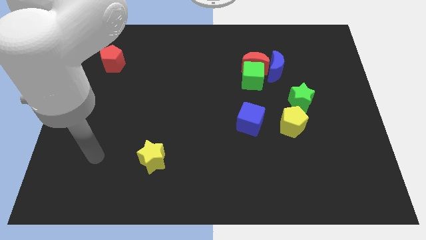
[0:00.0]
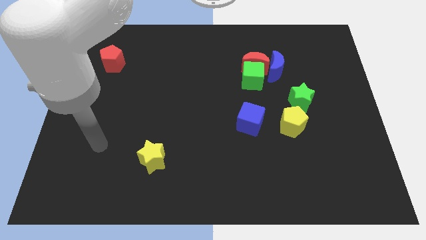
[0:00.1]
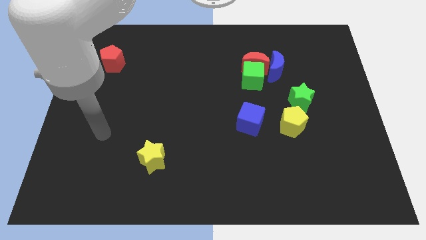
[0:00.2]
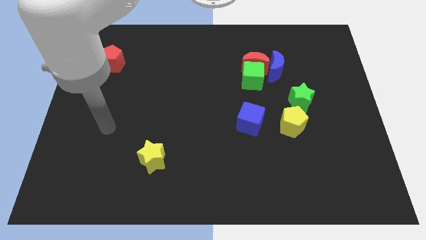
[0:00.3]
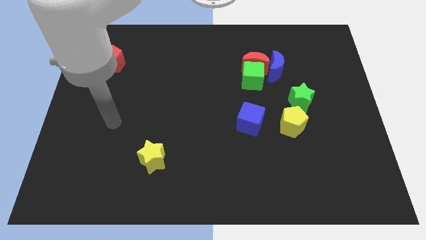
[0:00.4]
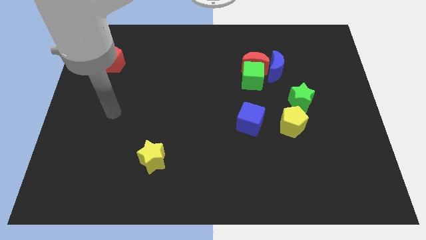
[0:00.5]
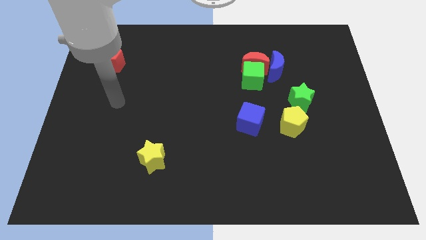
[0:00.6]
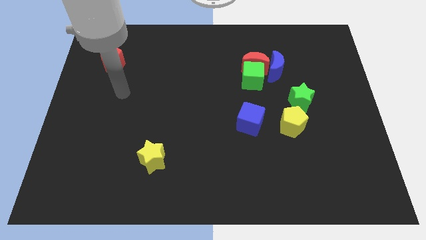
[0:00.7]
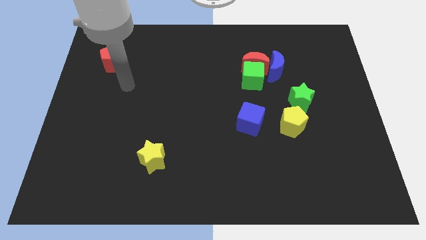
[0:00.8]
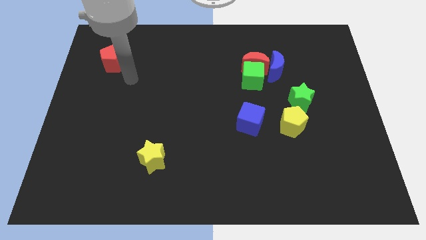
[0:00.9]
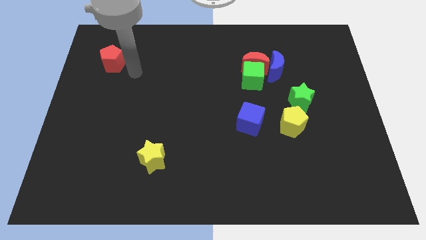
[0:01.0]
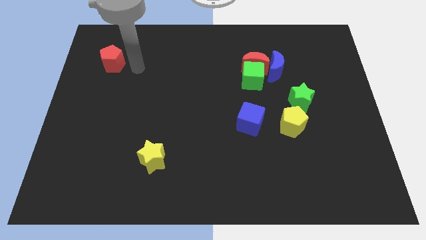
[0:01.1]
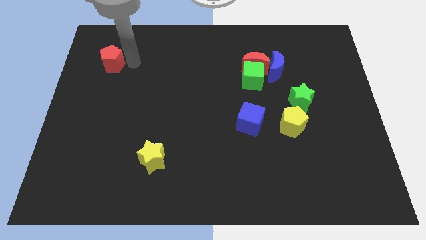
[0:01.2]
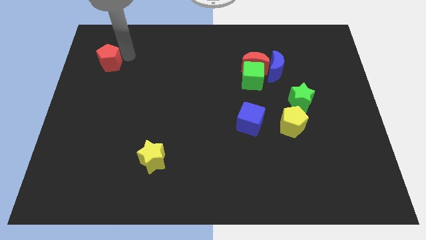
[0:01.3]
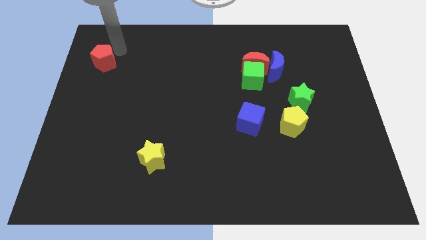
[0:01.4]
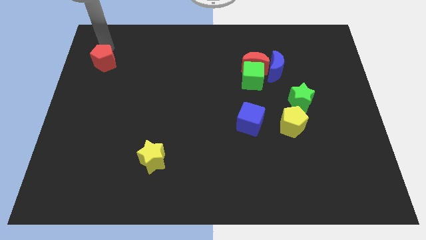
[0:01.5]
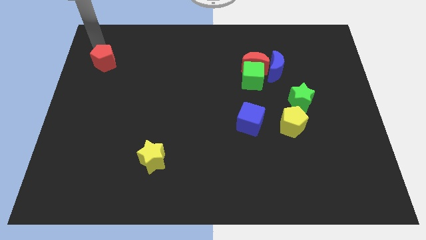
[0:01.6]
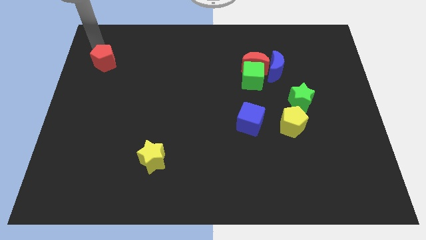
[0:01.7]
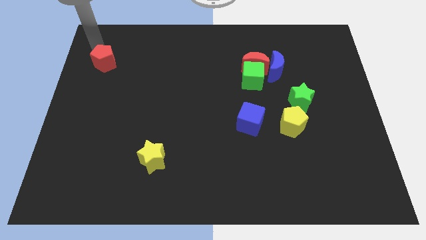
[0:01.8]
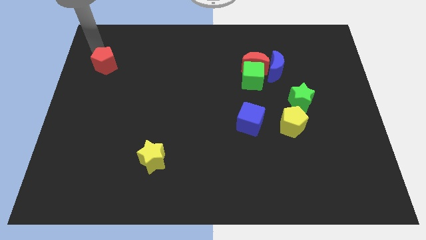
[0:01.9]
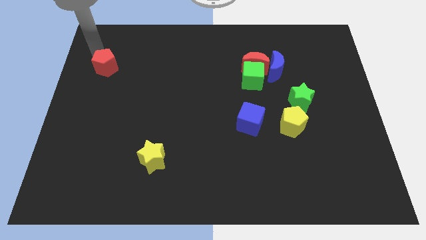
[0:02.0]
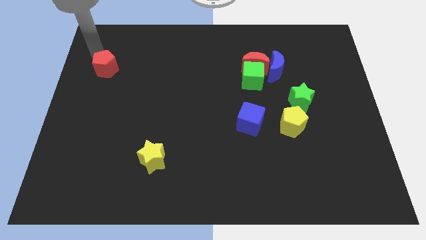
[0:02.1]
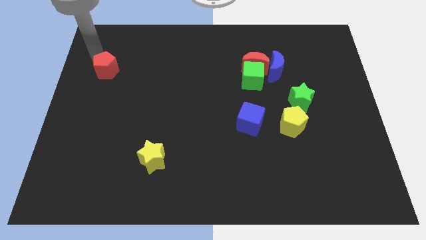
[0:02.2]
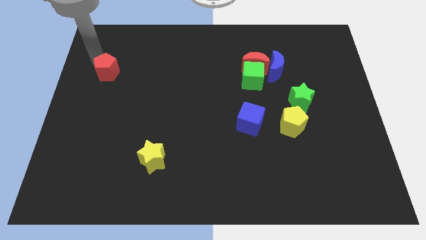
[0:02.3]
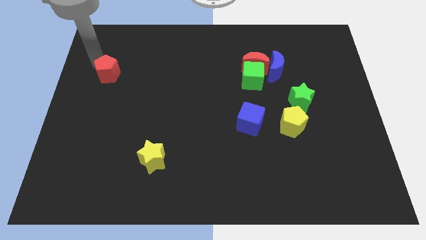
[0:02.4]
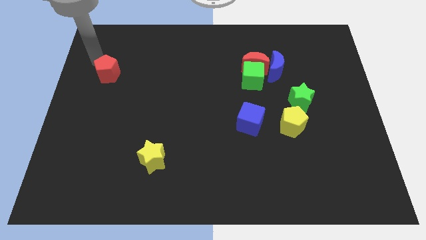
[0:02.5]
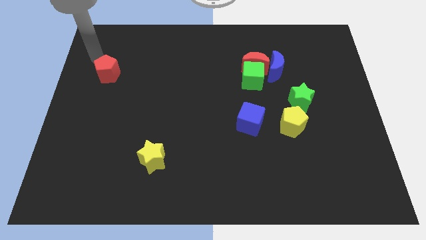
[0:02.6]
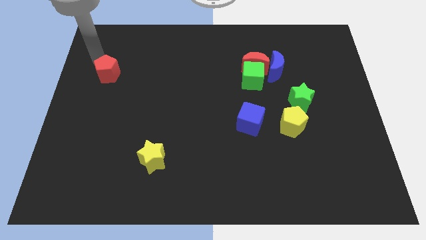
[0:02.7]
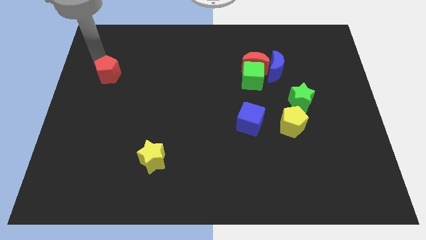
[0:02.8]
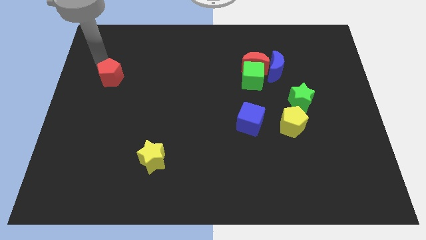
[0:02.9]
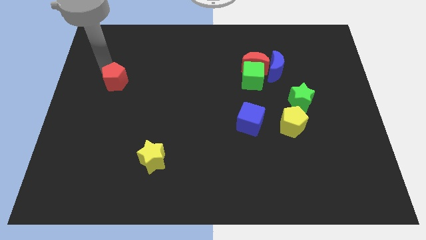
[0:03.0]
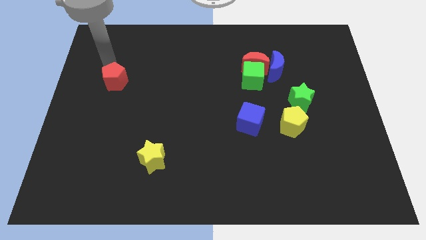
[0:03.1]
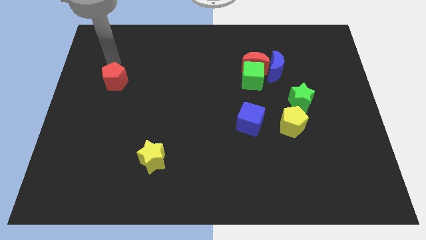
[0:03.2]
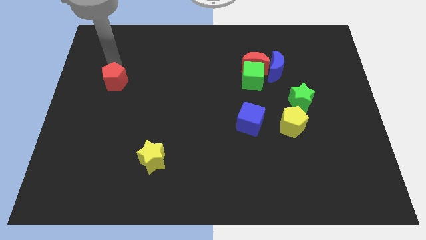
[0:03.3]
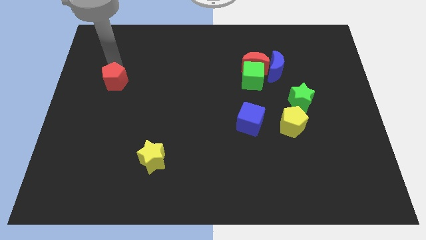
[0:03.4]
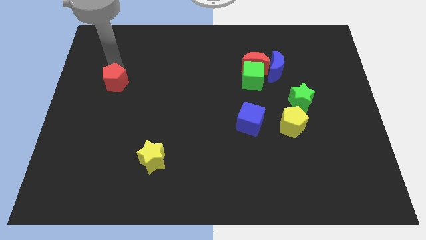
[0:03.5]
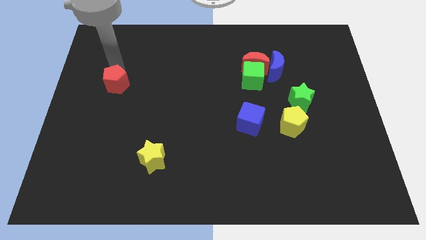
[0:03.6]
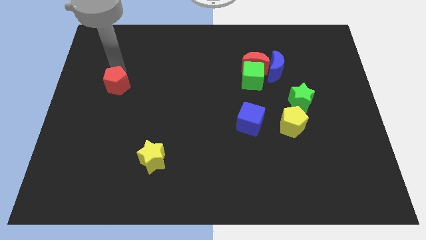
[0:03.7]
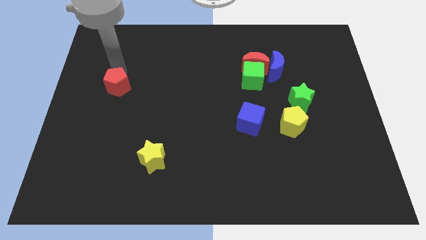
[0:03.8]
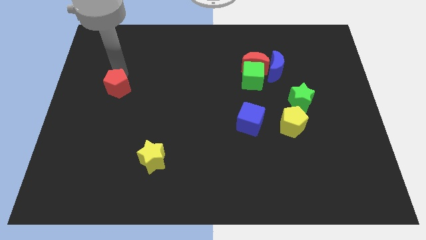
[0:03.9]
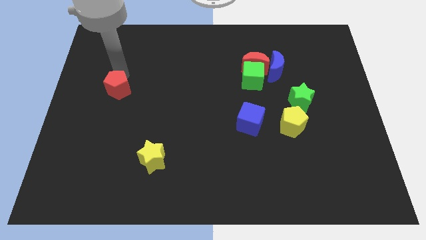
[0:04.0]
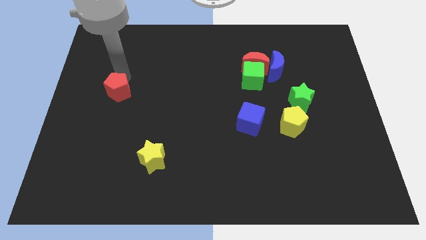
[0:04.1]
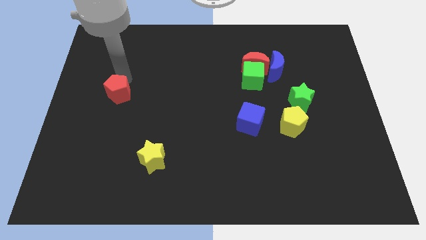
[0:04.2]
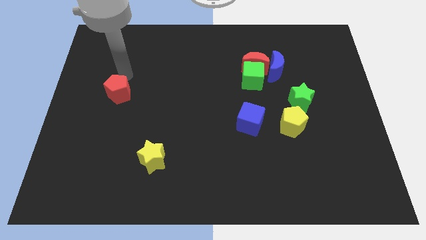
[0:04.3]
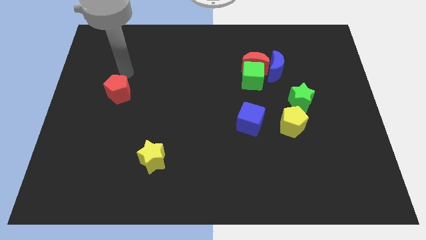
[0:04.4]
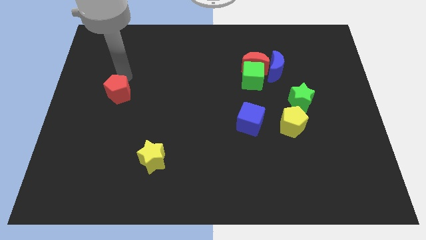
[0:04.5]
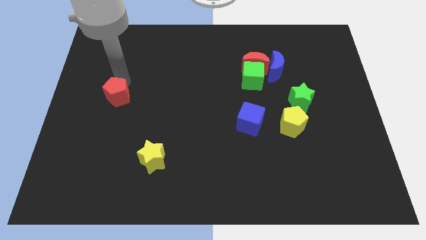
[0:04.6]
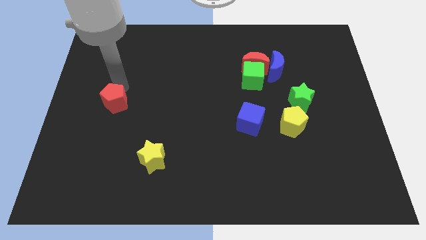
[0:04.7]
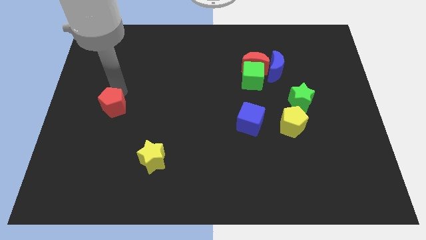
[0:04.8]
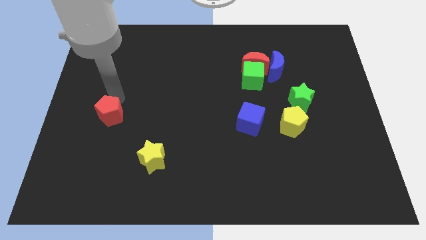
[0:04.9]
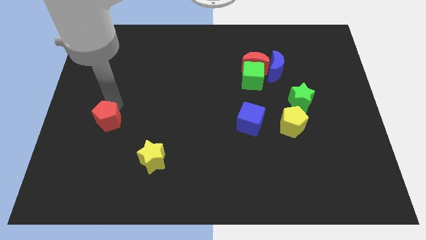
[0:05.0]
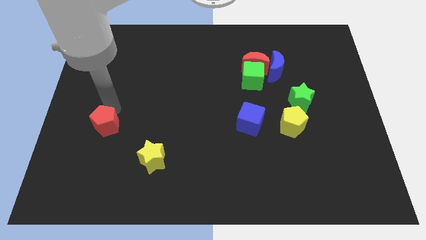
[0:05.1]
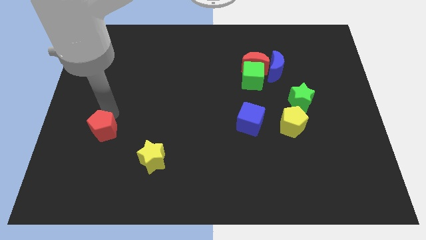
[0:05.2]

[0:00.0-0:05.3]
slide the red pentagon down

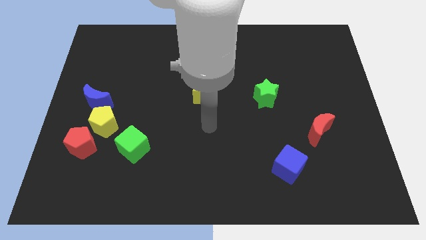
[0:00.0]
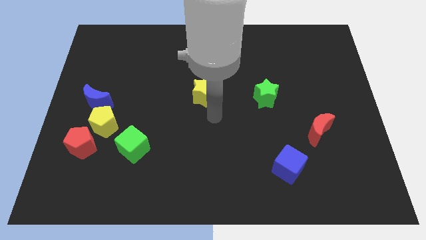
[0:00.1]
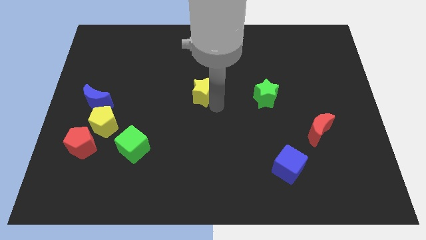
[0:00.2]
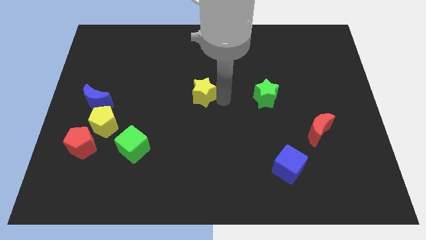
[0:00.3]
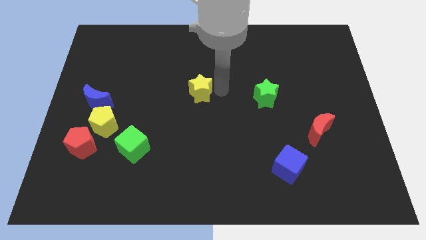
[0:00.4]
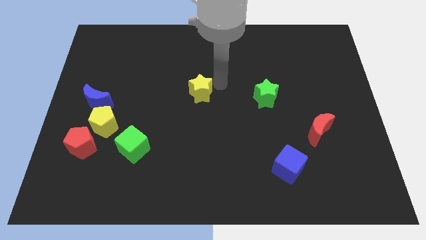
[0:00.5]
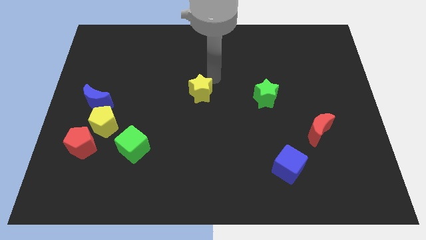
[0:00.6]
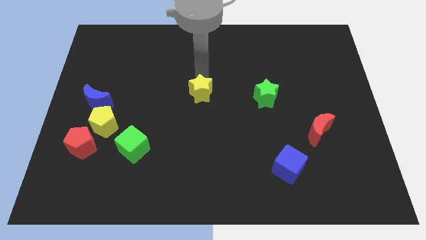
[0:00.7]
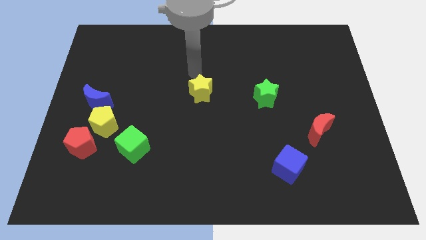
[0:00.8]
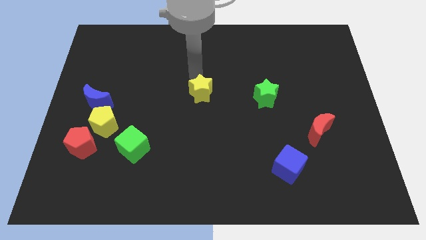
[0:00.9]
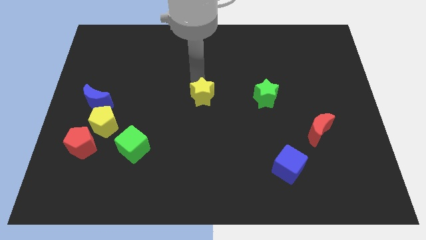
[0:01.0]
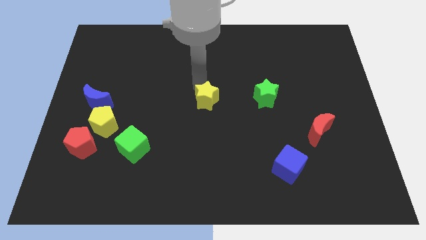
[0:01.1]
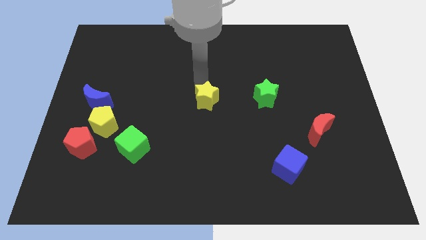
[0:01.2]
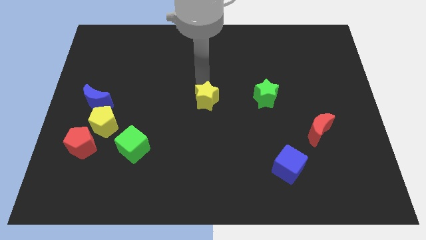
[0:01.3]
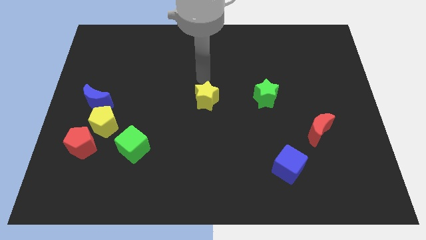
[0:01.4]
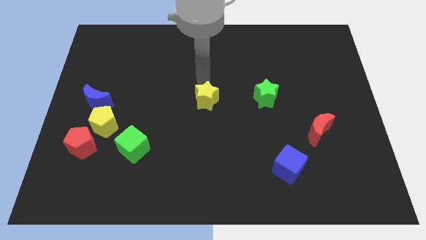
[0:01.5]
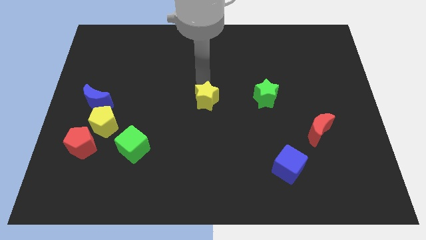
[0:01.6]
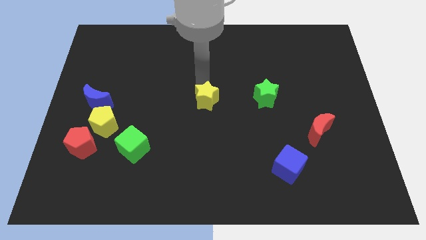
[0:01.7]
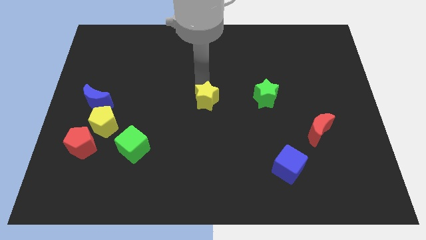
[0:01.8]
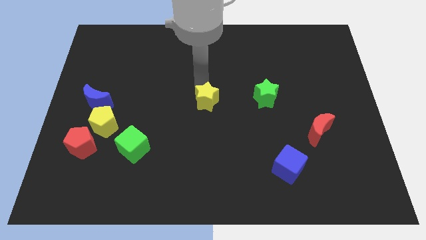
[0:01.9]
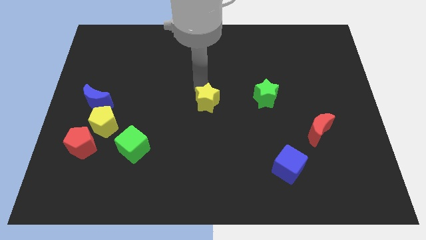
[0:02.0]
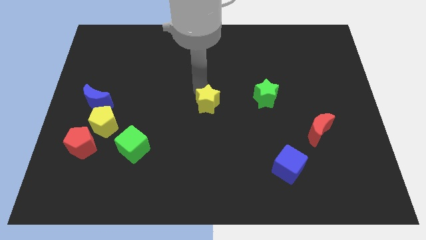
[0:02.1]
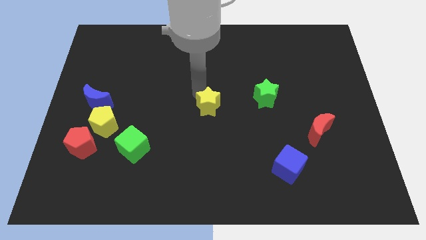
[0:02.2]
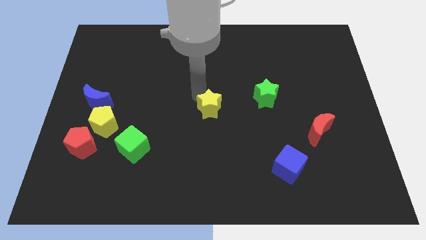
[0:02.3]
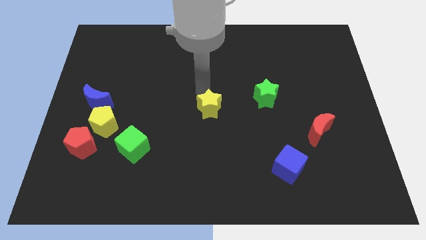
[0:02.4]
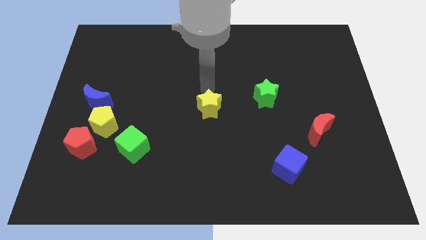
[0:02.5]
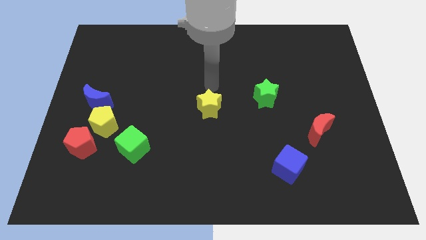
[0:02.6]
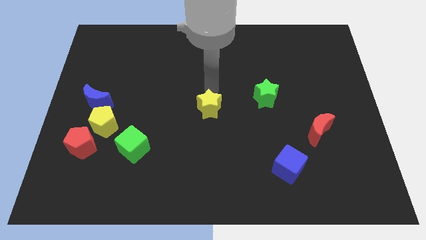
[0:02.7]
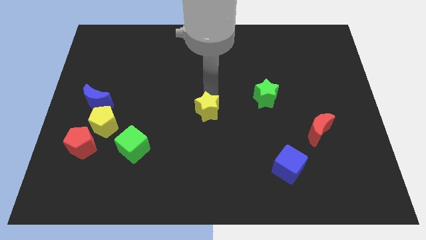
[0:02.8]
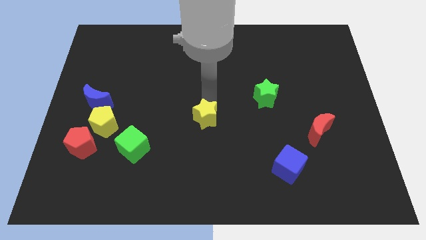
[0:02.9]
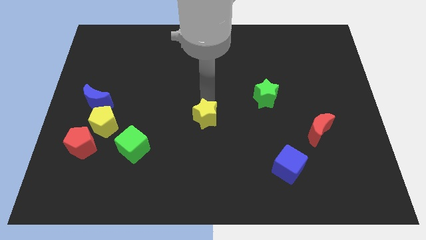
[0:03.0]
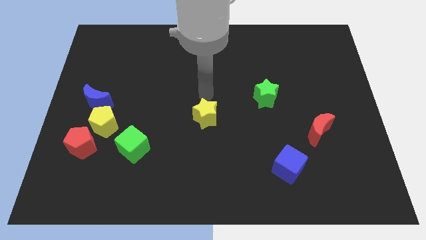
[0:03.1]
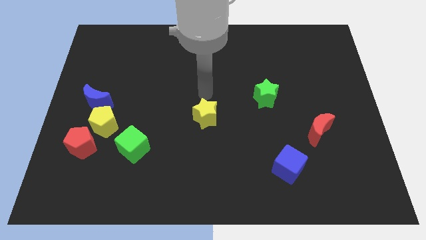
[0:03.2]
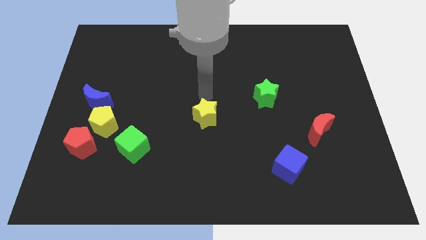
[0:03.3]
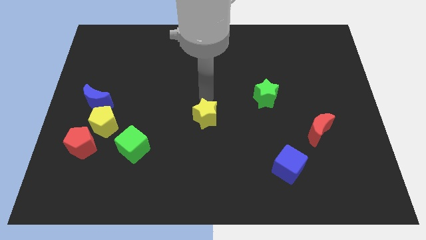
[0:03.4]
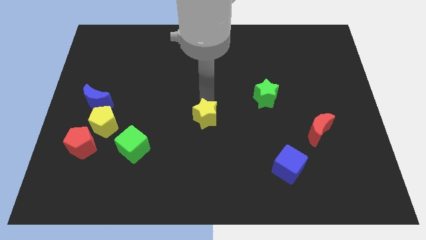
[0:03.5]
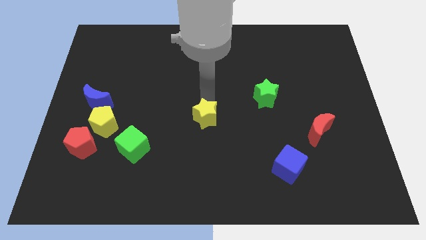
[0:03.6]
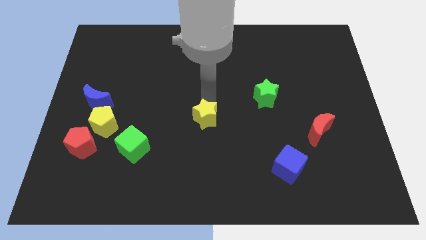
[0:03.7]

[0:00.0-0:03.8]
slide the yellow star somewhat down
